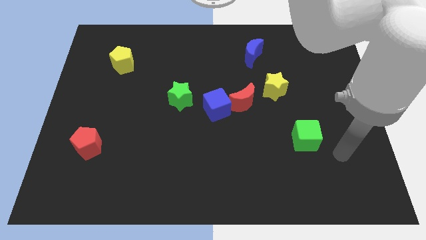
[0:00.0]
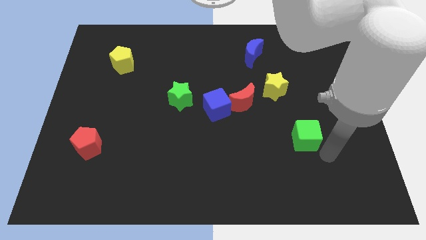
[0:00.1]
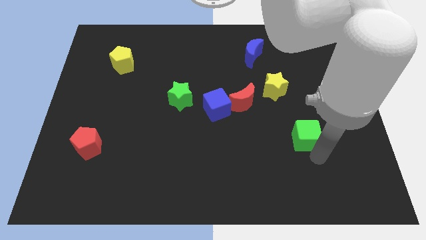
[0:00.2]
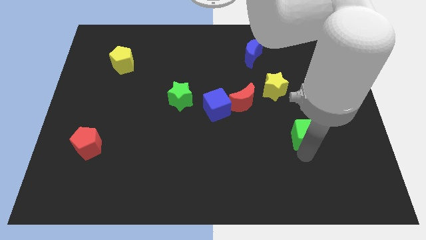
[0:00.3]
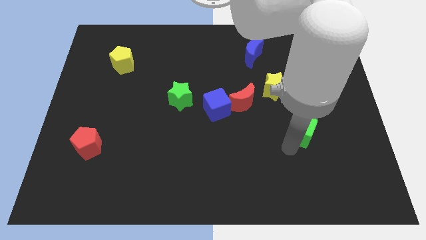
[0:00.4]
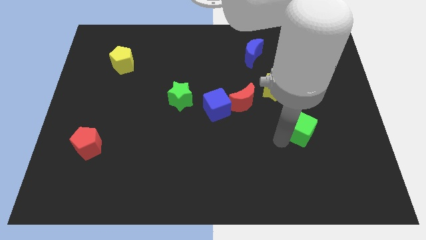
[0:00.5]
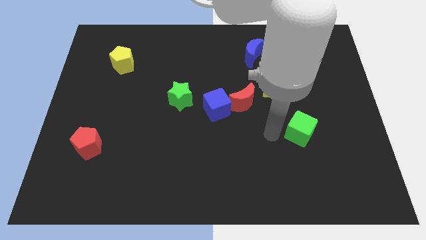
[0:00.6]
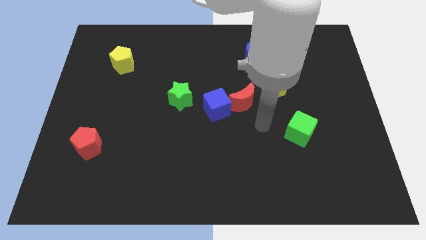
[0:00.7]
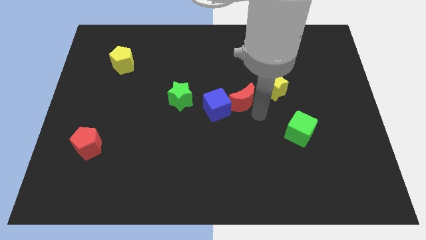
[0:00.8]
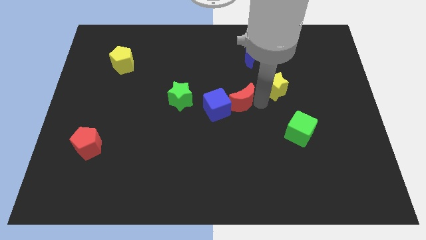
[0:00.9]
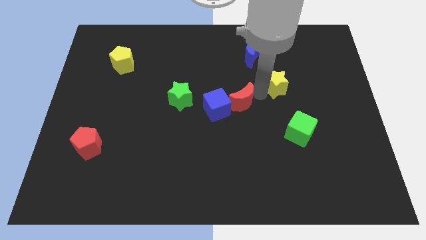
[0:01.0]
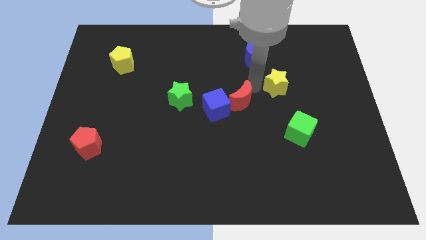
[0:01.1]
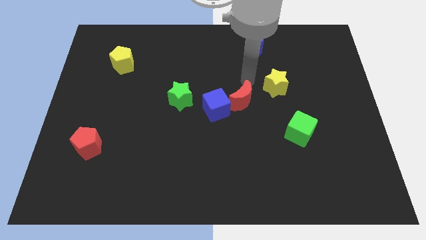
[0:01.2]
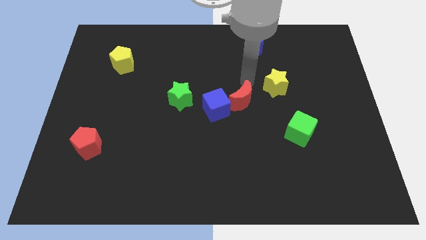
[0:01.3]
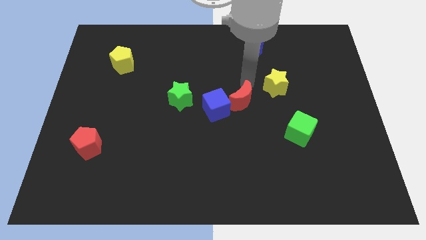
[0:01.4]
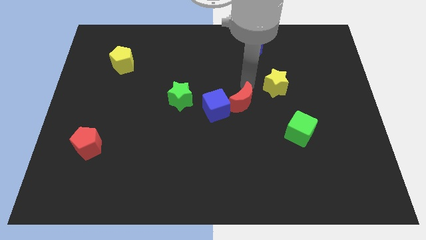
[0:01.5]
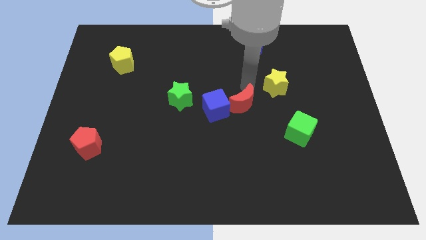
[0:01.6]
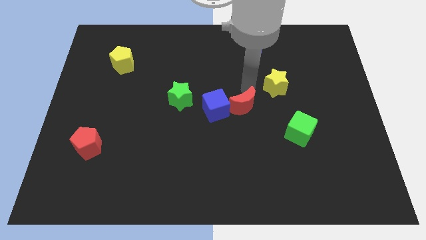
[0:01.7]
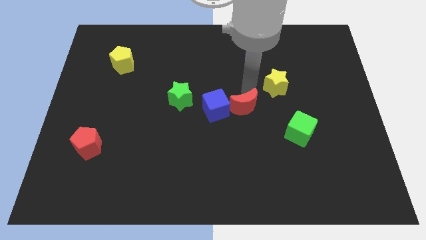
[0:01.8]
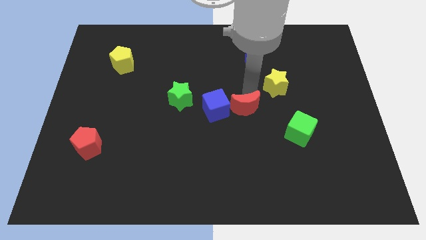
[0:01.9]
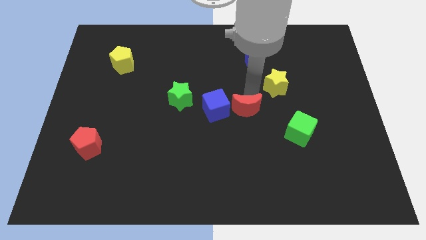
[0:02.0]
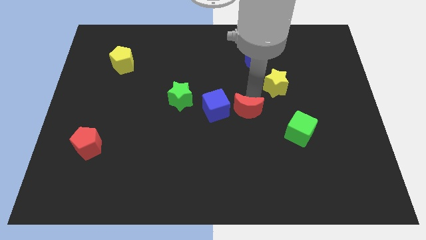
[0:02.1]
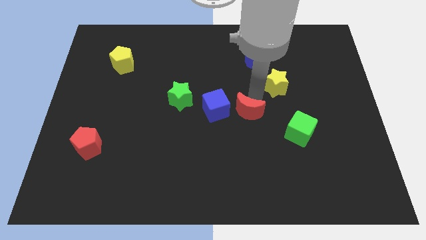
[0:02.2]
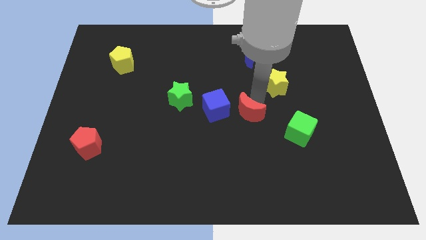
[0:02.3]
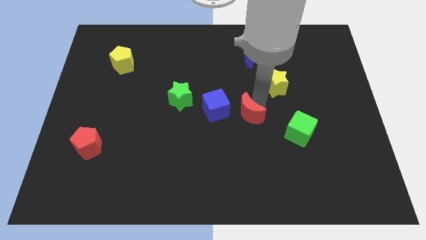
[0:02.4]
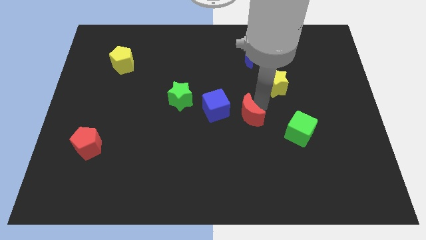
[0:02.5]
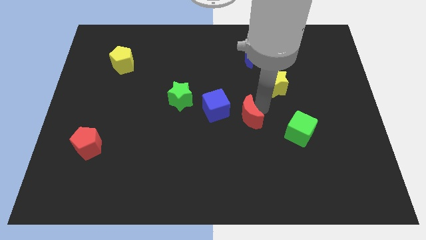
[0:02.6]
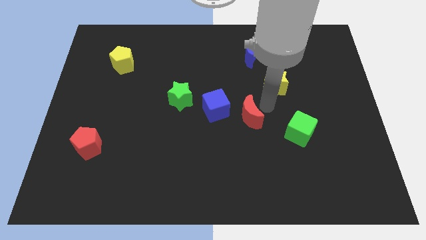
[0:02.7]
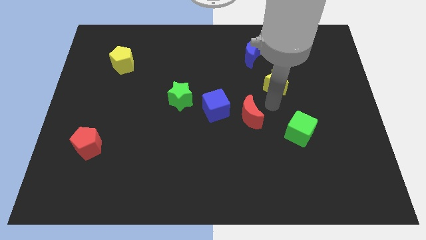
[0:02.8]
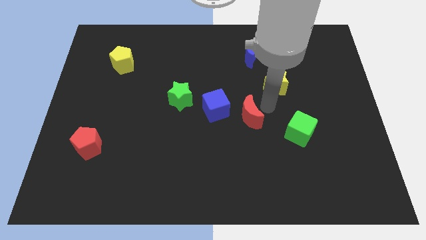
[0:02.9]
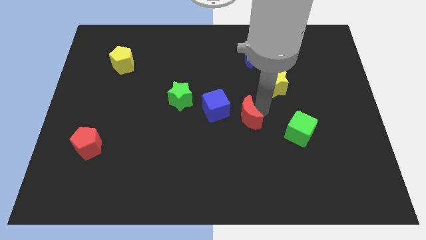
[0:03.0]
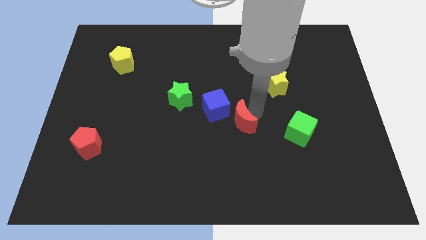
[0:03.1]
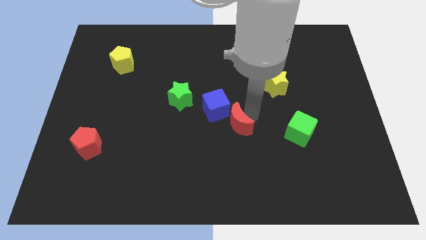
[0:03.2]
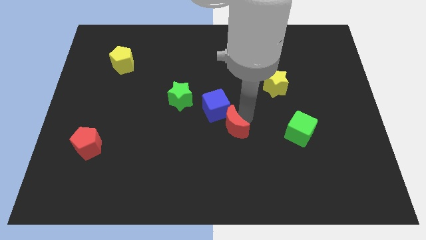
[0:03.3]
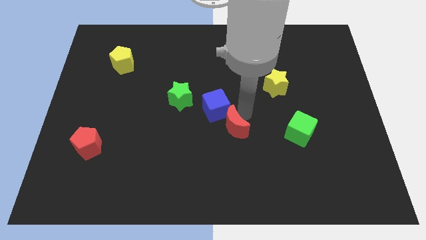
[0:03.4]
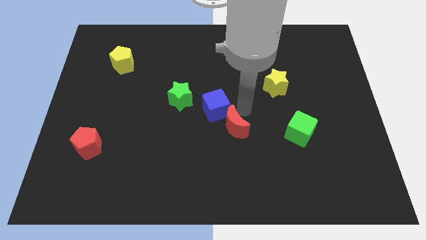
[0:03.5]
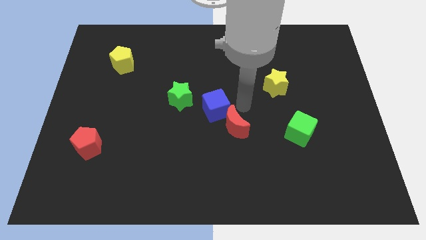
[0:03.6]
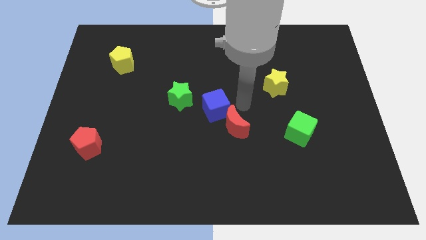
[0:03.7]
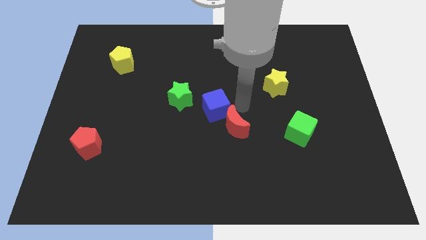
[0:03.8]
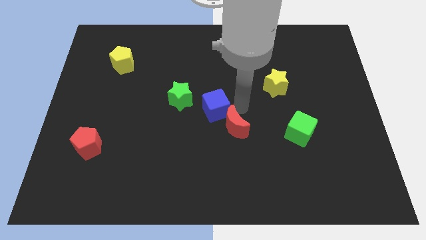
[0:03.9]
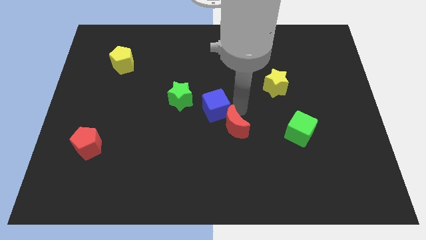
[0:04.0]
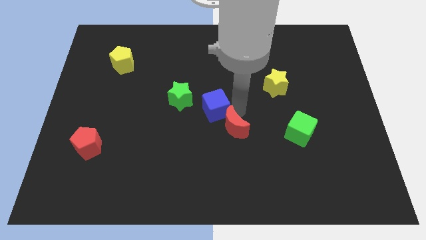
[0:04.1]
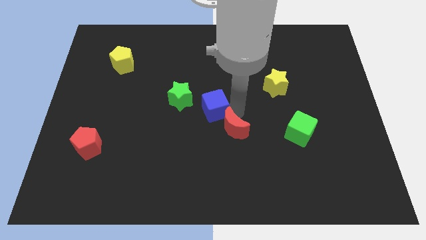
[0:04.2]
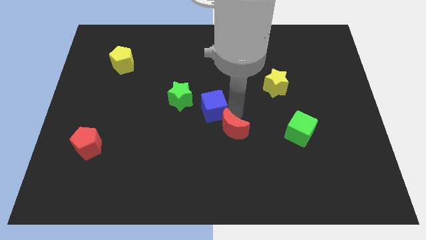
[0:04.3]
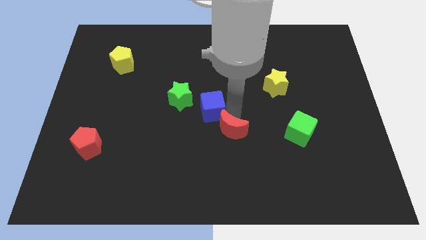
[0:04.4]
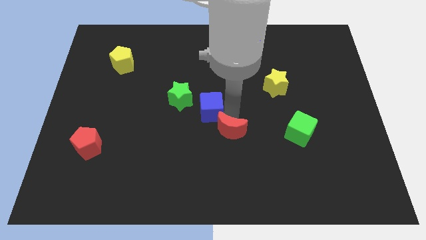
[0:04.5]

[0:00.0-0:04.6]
move the red moon away from the blue cube and yellow star

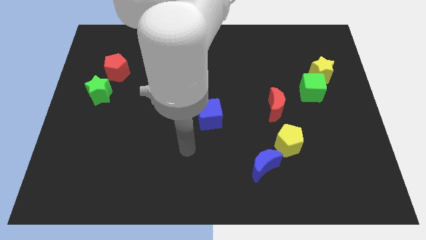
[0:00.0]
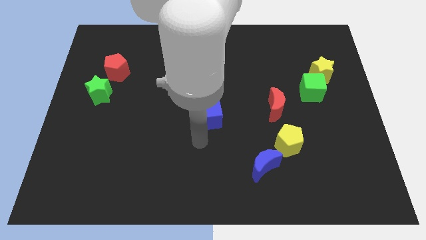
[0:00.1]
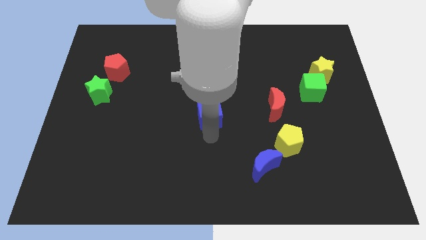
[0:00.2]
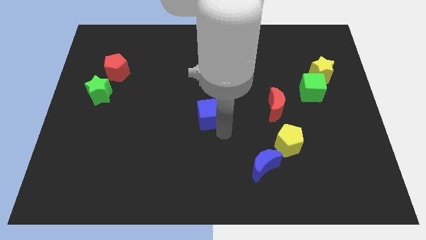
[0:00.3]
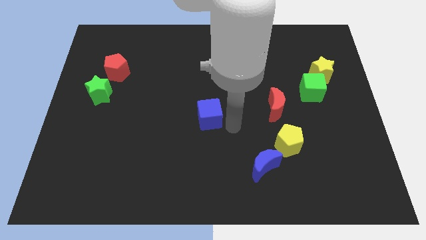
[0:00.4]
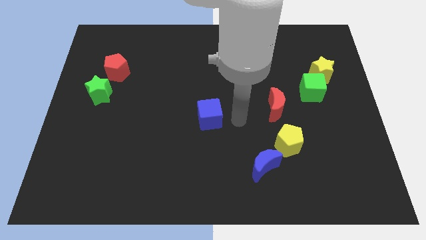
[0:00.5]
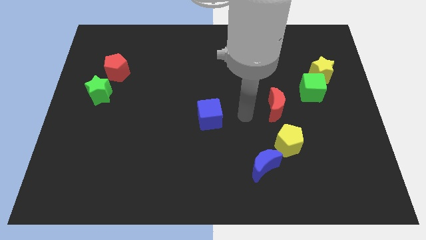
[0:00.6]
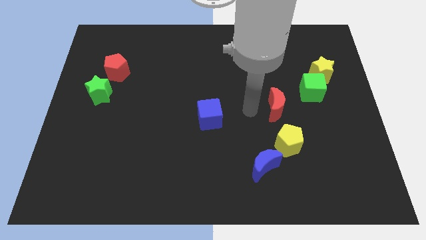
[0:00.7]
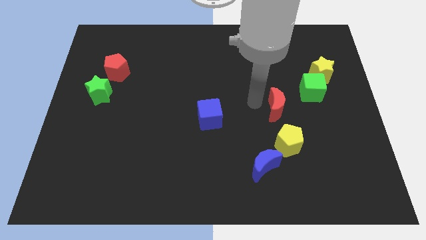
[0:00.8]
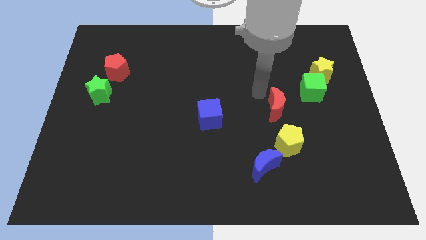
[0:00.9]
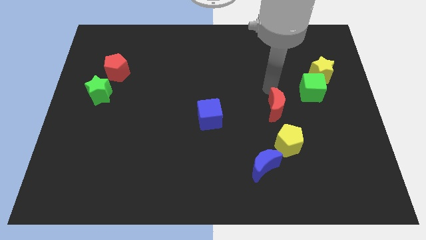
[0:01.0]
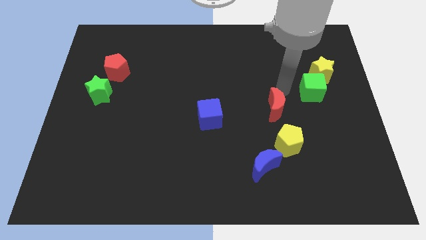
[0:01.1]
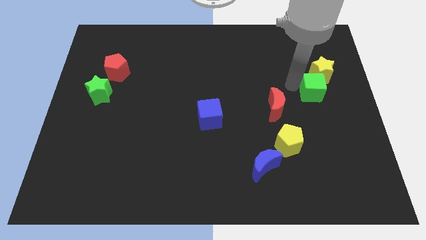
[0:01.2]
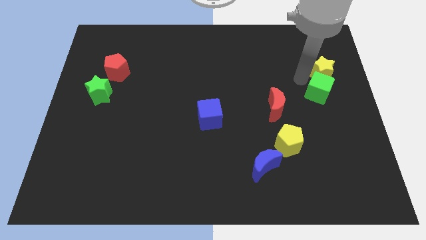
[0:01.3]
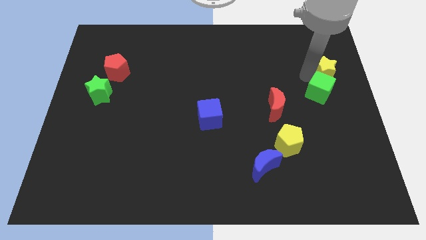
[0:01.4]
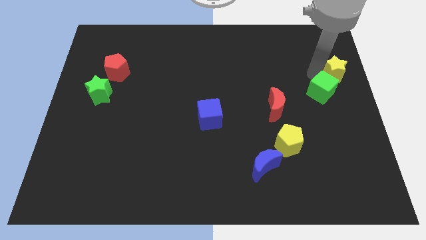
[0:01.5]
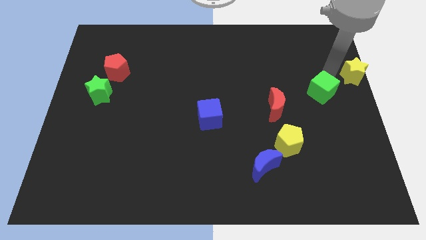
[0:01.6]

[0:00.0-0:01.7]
separate the green cube from the yellow star

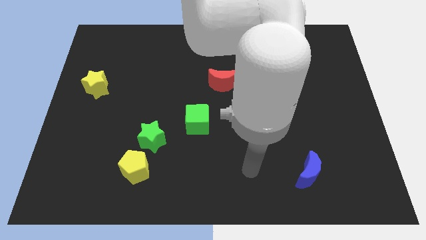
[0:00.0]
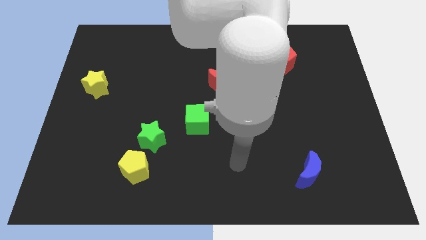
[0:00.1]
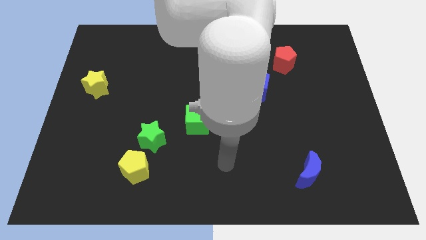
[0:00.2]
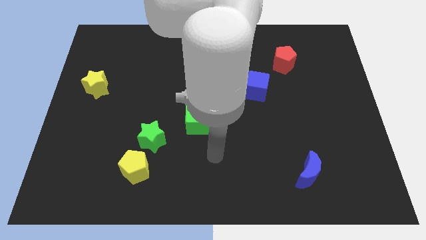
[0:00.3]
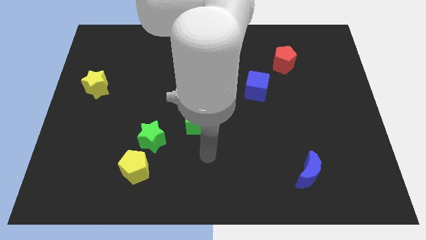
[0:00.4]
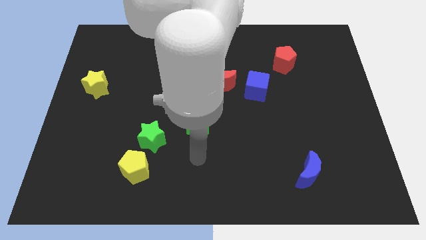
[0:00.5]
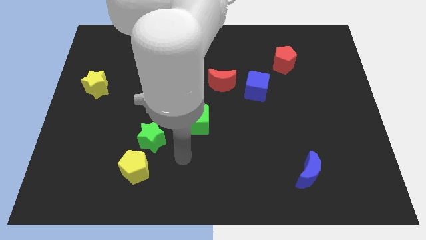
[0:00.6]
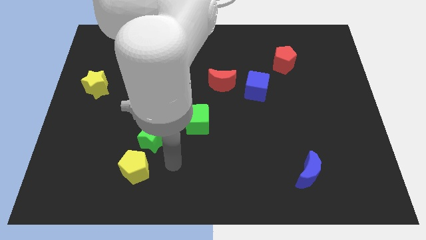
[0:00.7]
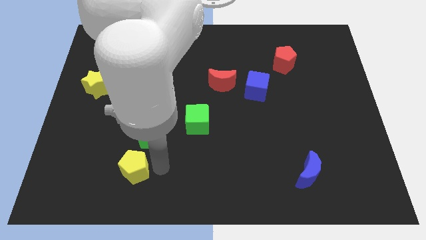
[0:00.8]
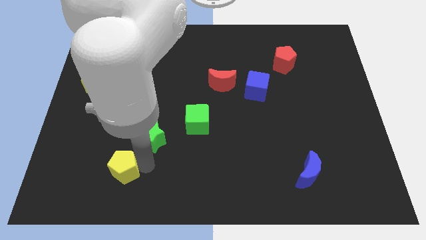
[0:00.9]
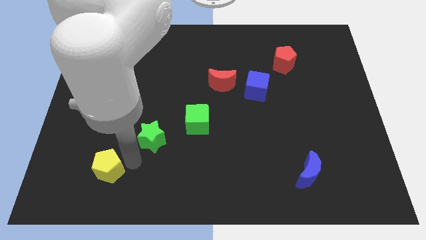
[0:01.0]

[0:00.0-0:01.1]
separate the green star from the yellow pentagon

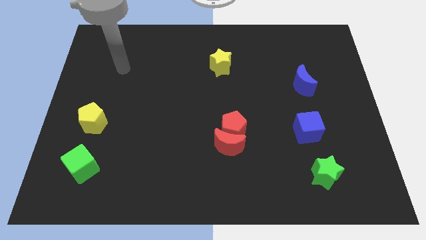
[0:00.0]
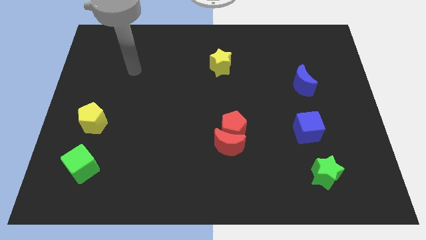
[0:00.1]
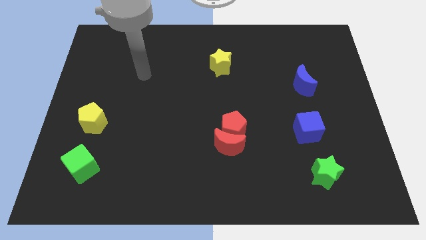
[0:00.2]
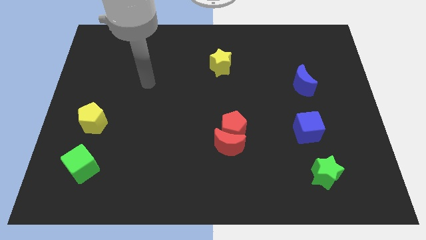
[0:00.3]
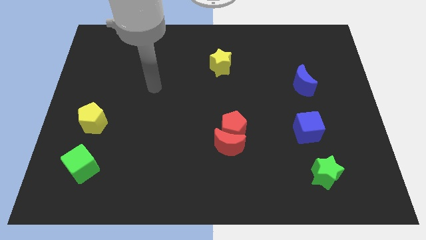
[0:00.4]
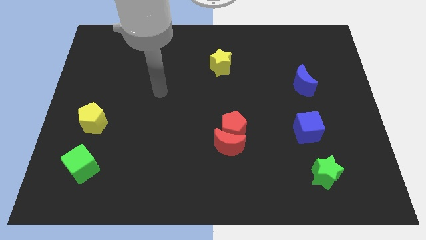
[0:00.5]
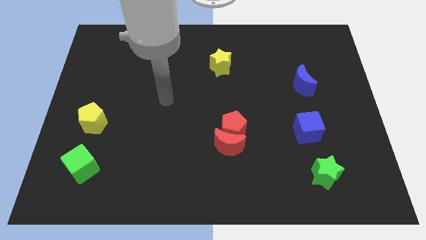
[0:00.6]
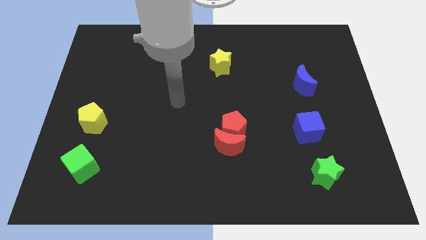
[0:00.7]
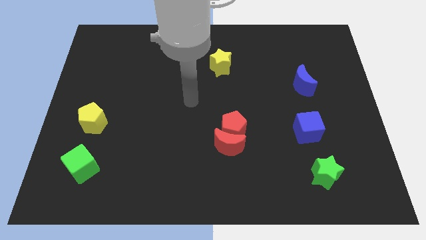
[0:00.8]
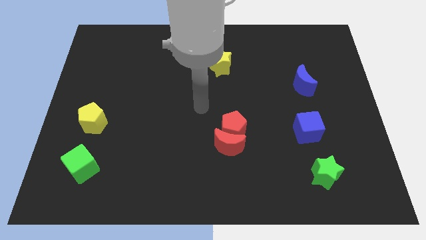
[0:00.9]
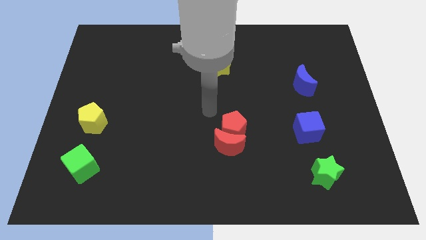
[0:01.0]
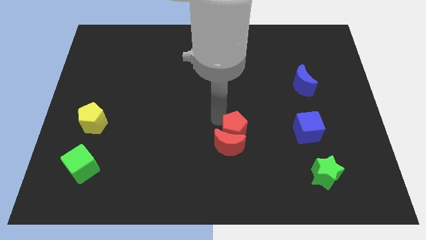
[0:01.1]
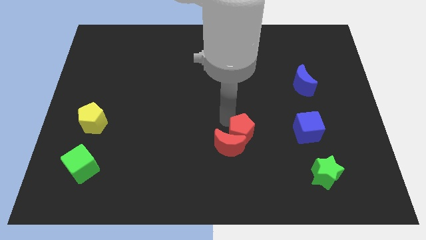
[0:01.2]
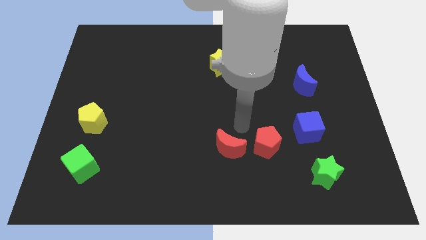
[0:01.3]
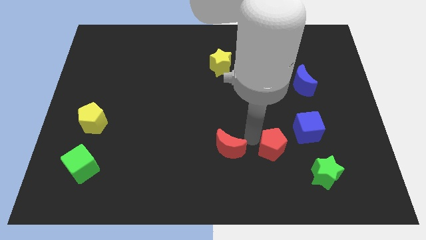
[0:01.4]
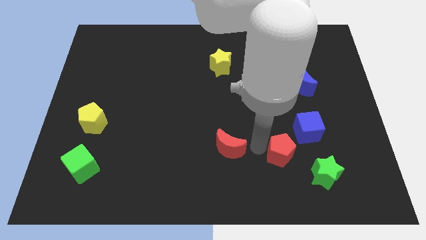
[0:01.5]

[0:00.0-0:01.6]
pull the red moon apart from the red pentagon

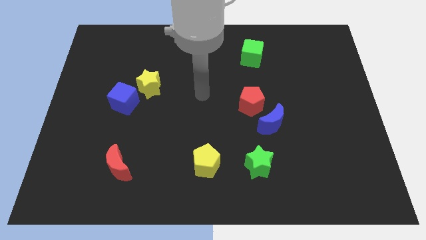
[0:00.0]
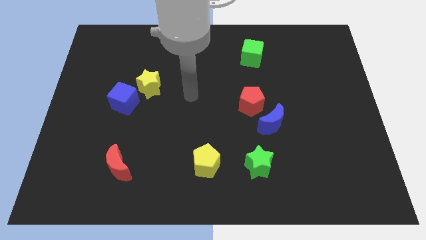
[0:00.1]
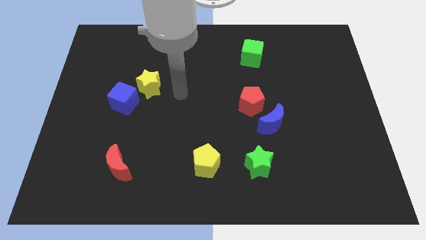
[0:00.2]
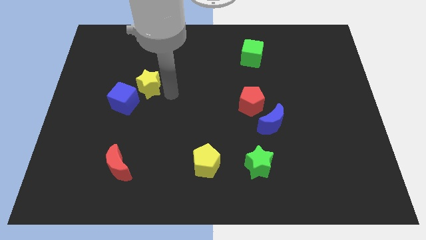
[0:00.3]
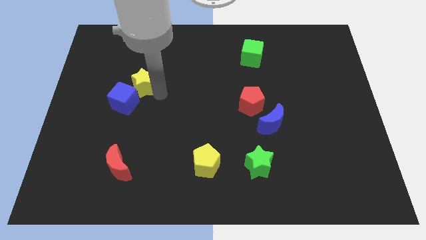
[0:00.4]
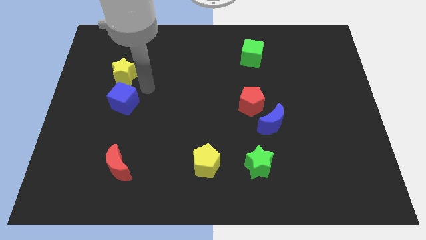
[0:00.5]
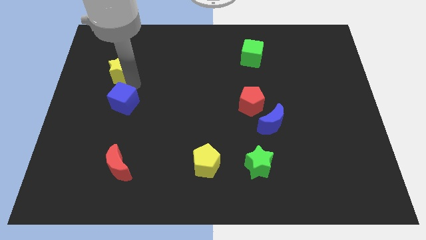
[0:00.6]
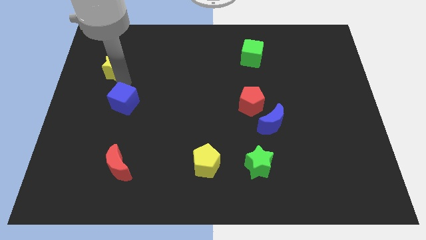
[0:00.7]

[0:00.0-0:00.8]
pull the blue cube apart from the yellow star
